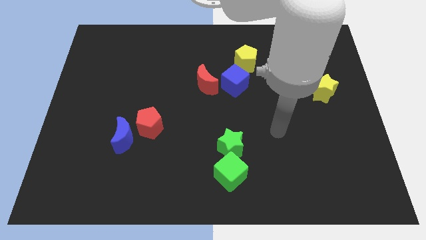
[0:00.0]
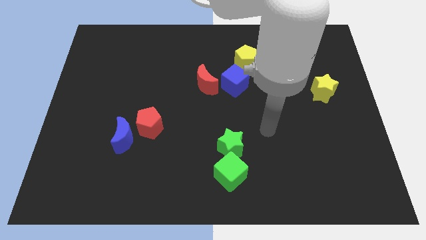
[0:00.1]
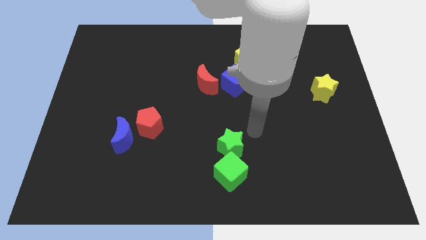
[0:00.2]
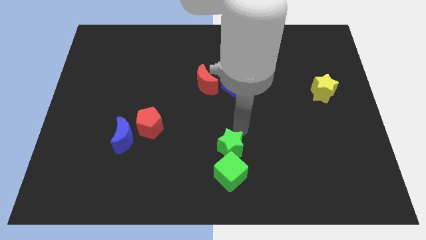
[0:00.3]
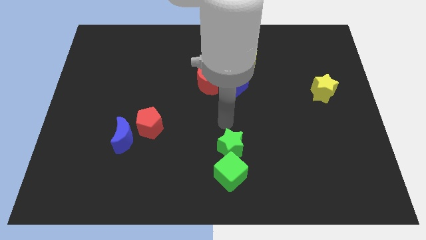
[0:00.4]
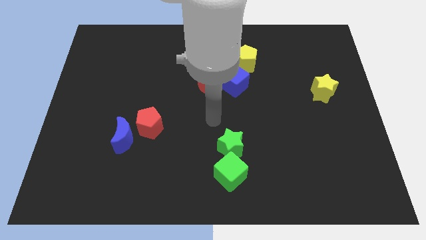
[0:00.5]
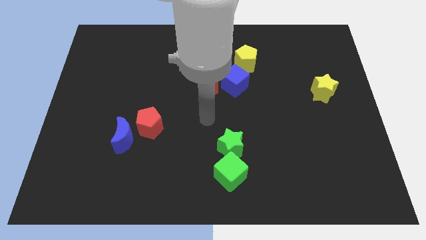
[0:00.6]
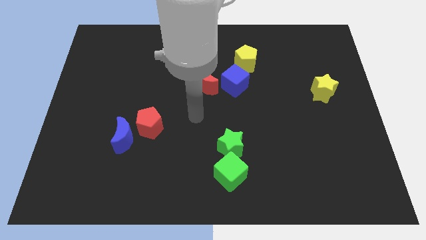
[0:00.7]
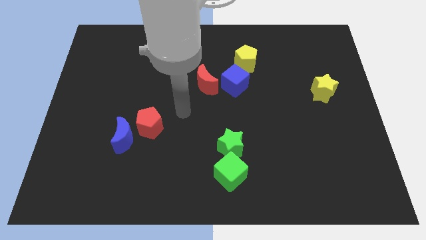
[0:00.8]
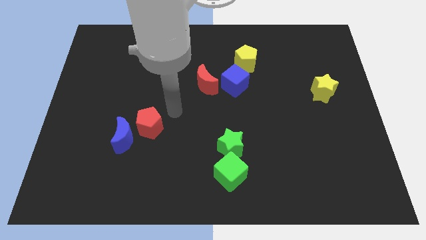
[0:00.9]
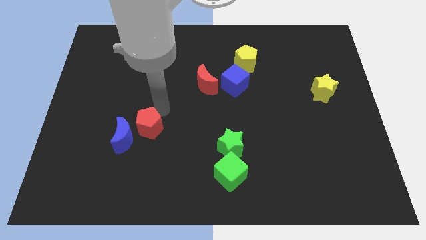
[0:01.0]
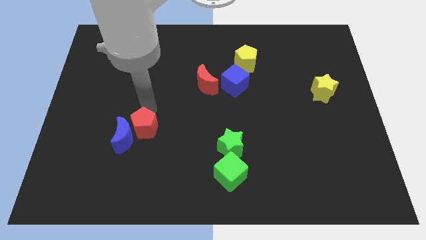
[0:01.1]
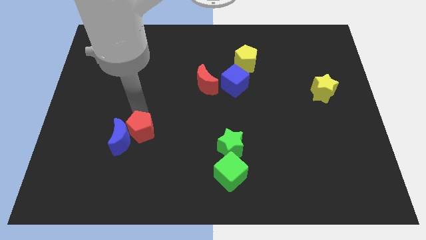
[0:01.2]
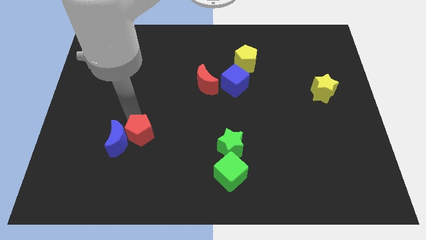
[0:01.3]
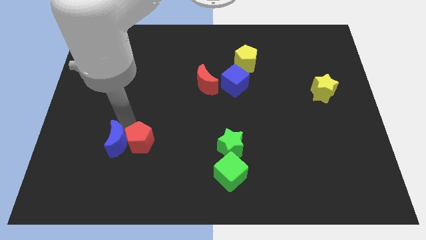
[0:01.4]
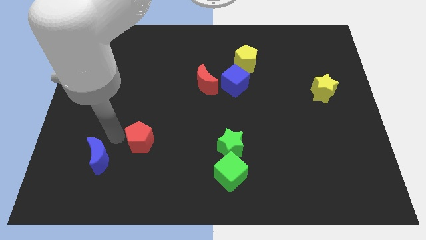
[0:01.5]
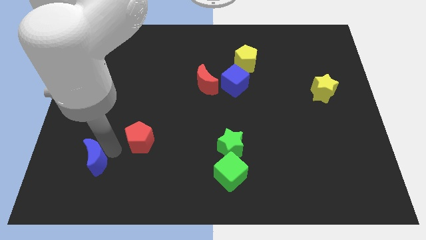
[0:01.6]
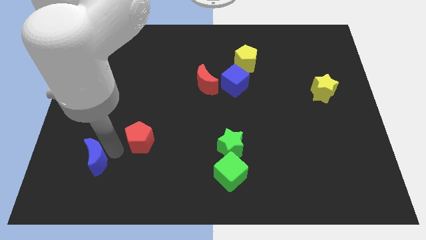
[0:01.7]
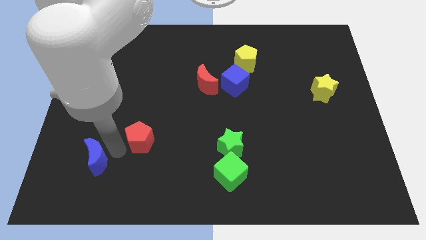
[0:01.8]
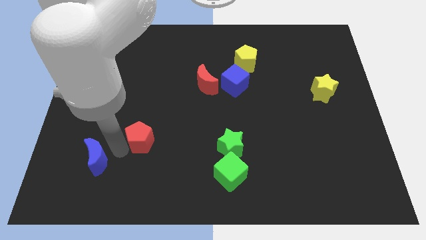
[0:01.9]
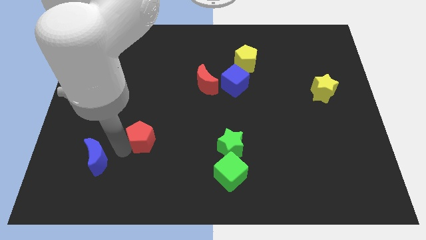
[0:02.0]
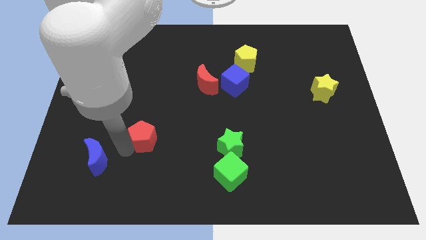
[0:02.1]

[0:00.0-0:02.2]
pull the red pentagon apart from the blue moon

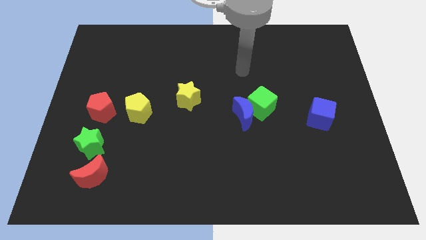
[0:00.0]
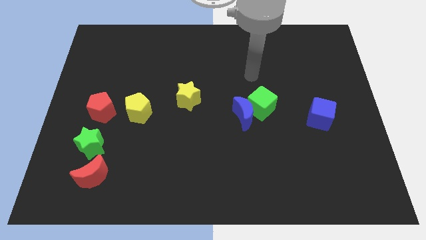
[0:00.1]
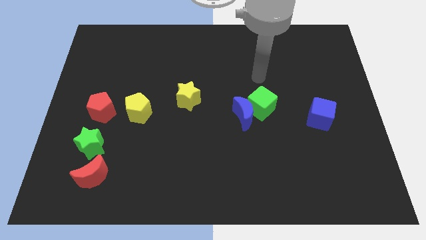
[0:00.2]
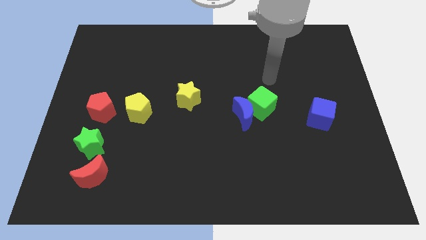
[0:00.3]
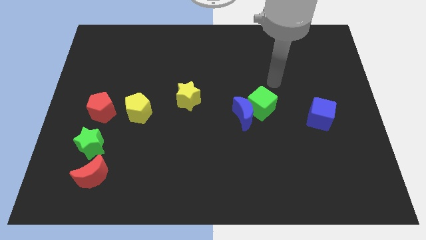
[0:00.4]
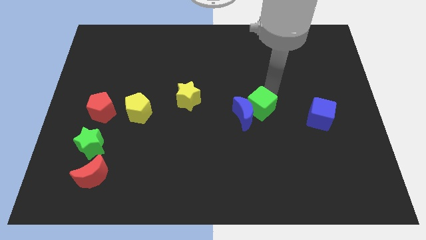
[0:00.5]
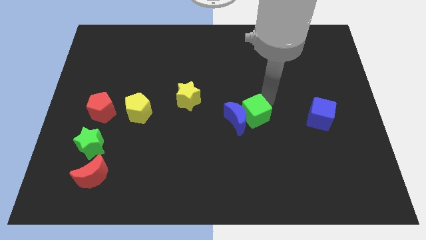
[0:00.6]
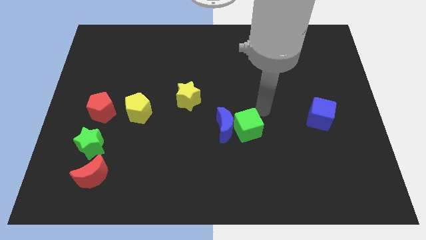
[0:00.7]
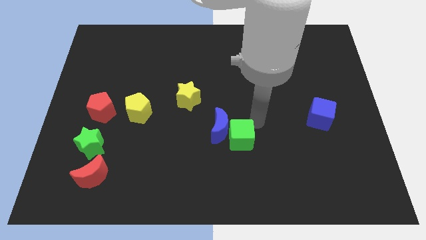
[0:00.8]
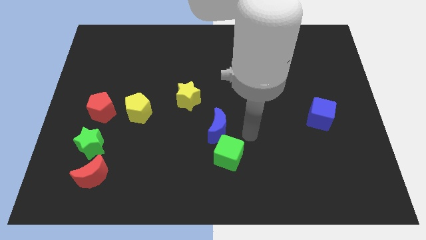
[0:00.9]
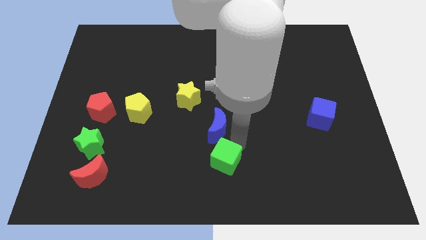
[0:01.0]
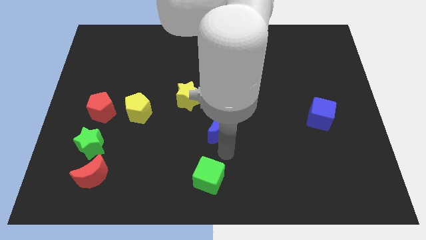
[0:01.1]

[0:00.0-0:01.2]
move the blue moon away from the green cube

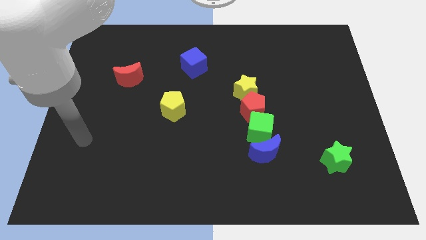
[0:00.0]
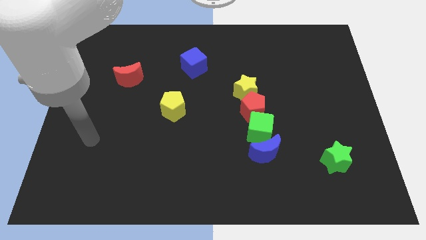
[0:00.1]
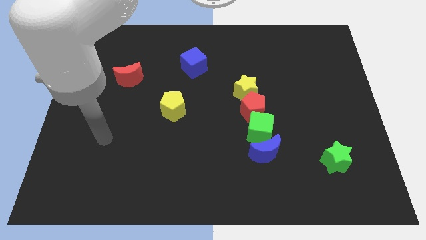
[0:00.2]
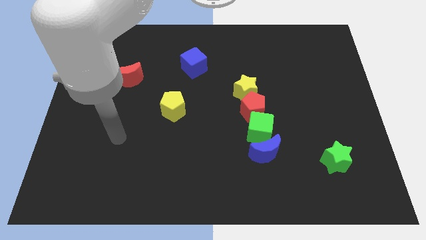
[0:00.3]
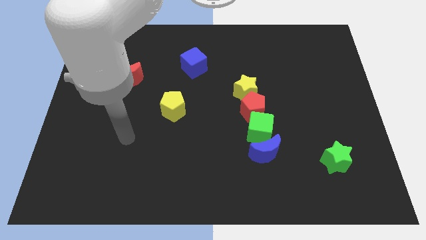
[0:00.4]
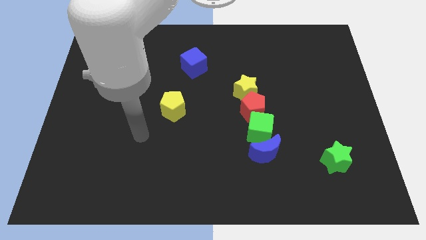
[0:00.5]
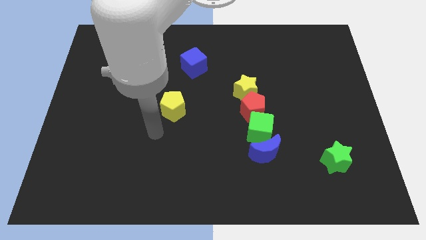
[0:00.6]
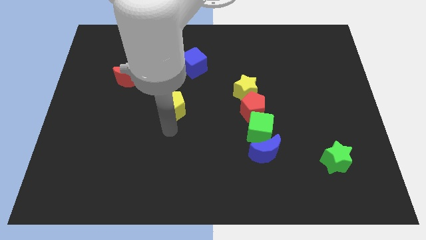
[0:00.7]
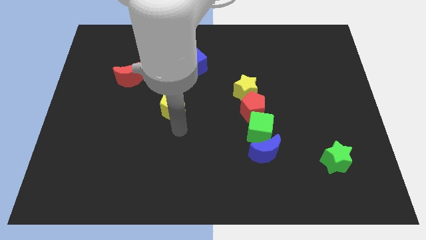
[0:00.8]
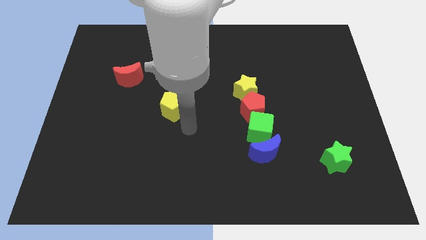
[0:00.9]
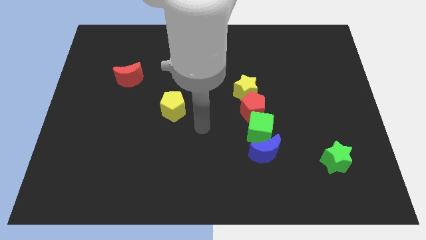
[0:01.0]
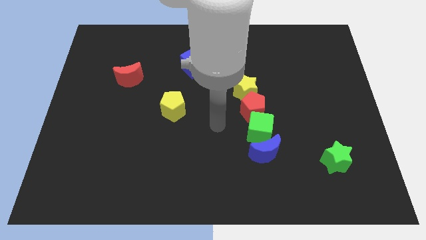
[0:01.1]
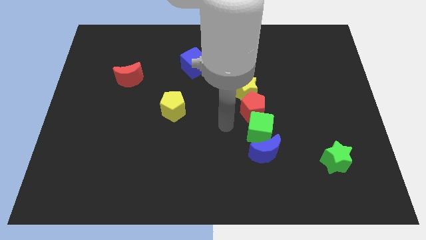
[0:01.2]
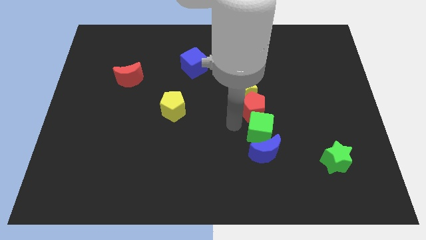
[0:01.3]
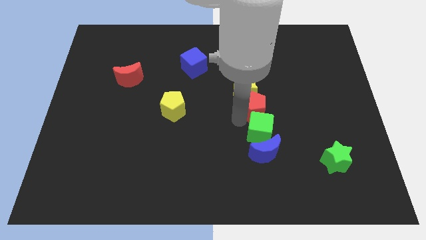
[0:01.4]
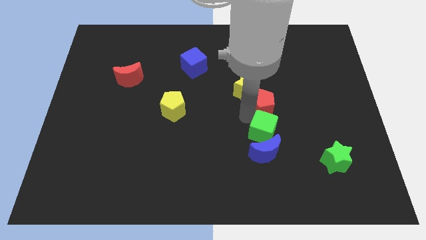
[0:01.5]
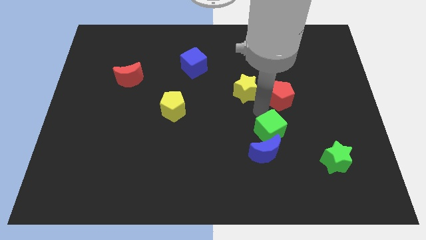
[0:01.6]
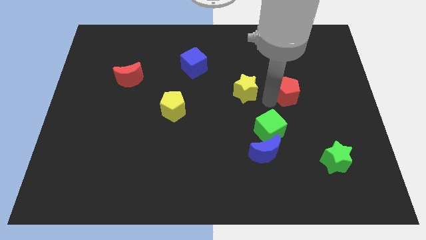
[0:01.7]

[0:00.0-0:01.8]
separate the yellow star from the red pentagon

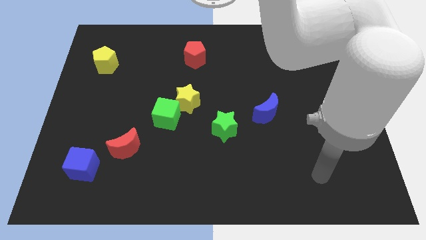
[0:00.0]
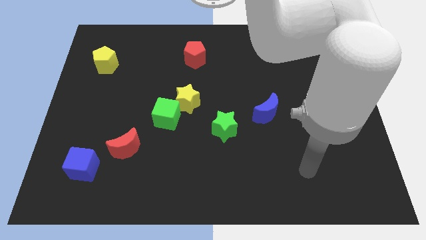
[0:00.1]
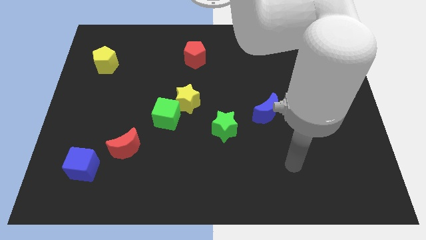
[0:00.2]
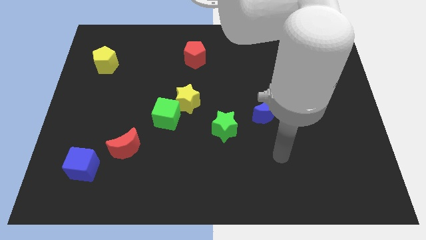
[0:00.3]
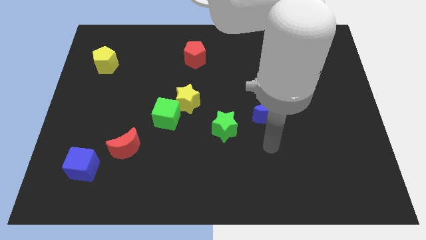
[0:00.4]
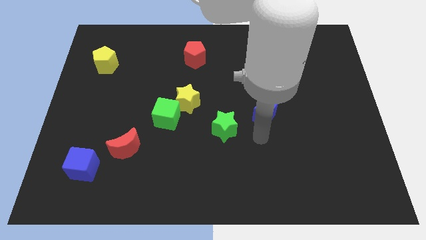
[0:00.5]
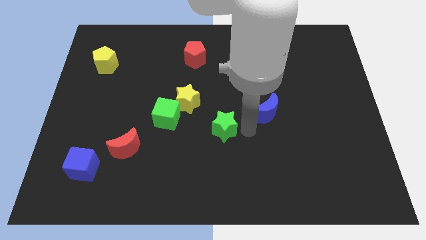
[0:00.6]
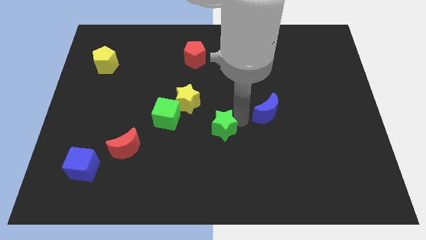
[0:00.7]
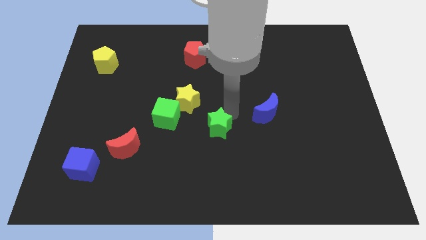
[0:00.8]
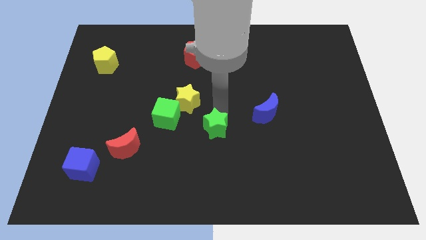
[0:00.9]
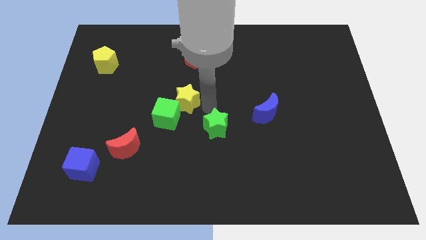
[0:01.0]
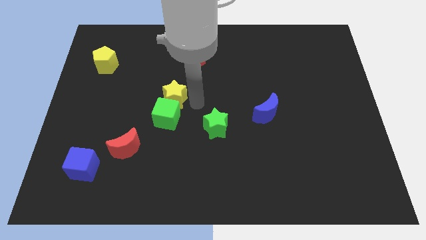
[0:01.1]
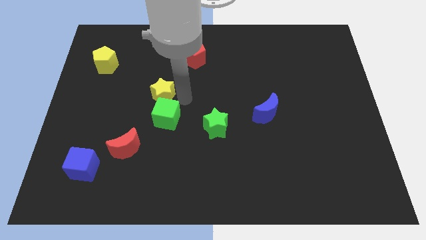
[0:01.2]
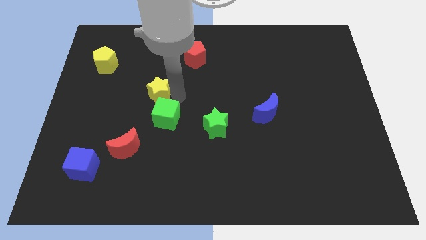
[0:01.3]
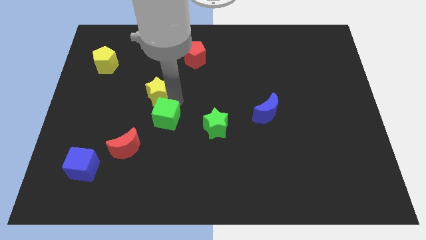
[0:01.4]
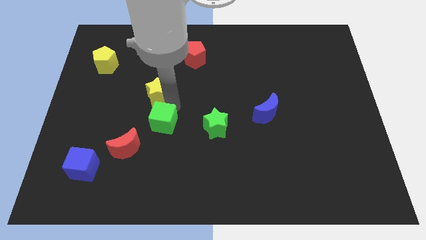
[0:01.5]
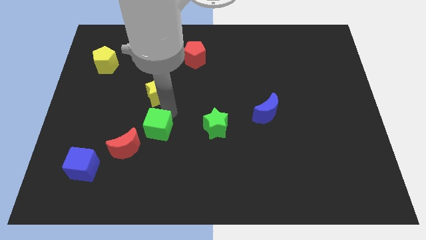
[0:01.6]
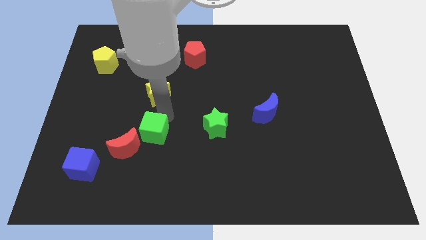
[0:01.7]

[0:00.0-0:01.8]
pull the green cube apart from the yellow star

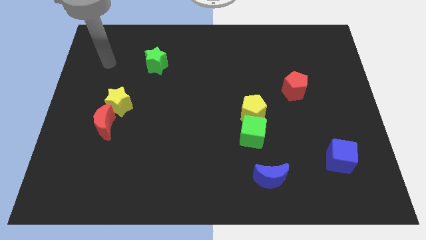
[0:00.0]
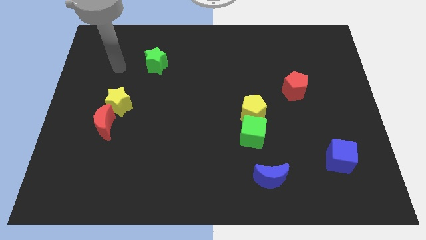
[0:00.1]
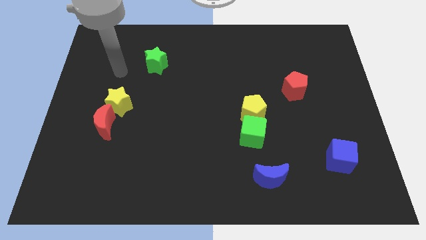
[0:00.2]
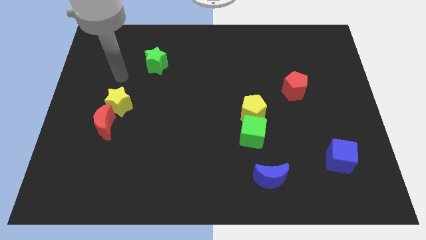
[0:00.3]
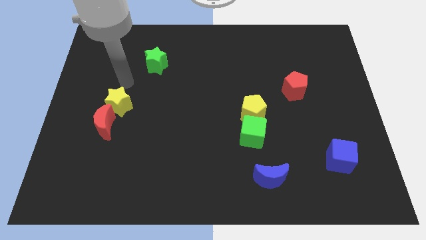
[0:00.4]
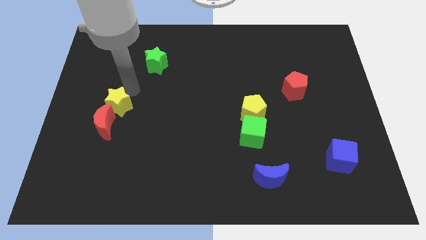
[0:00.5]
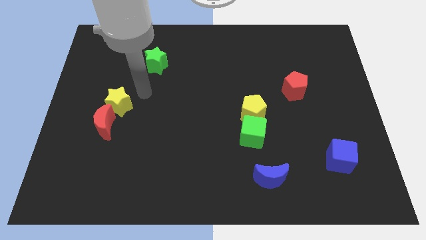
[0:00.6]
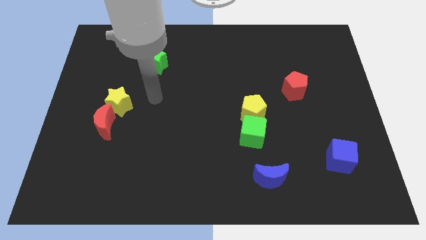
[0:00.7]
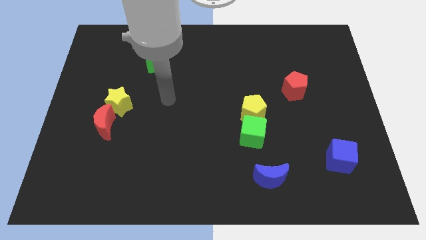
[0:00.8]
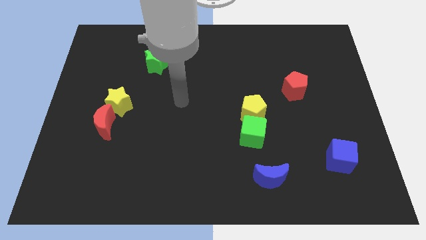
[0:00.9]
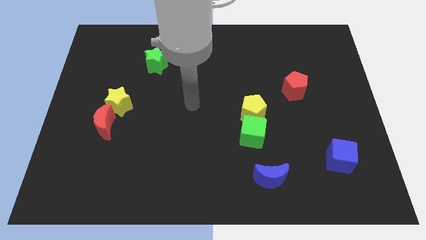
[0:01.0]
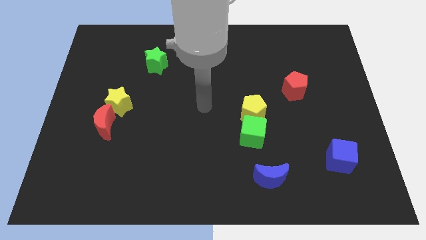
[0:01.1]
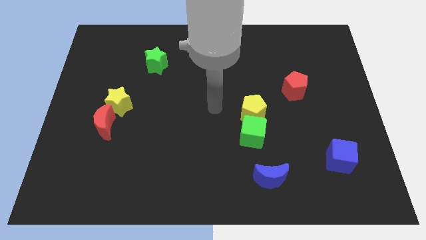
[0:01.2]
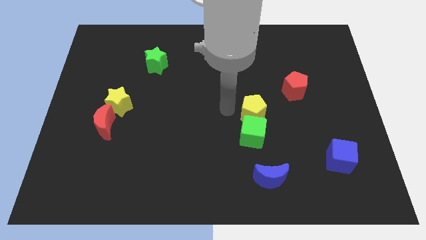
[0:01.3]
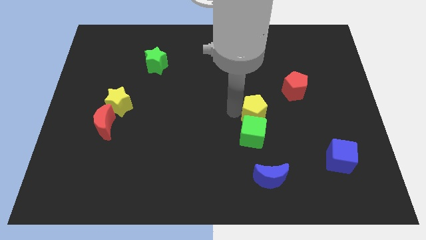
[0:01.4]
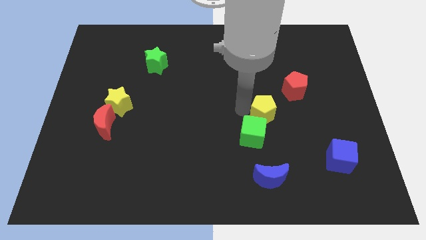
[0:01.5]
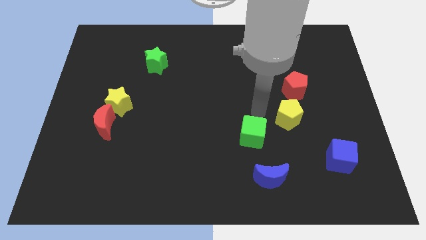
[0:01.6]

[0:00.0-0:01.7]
move the green cube away from the yellow pentagon

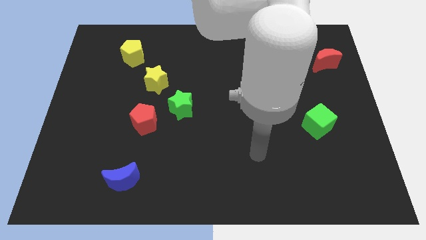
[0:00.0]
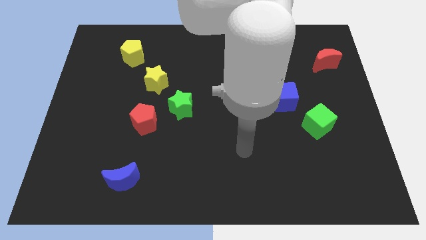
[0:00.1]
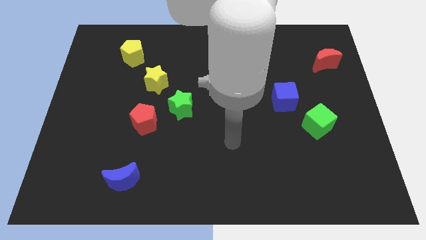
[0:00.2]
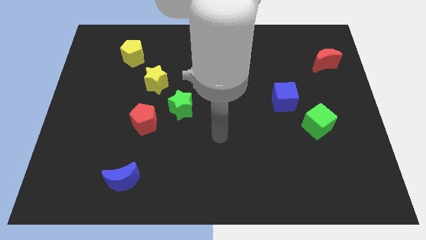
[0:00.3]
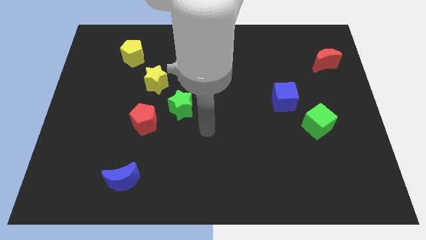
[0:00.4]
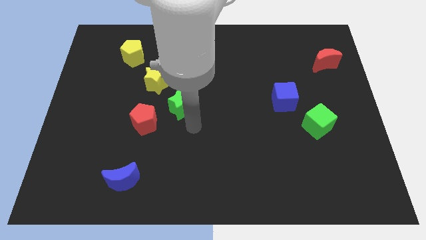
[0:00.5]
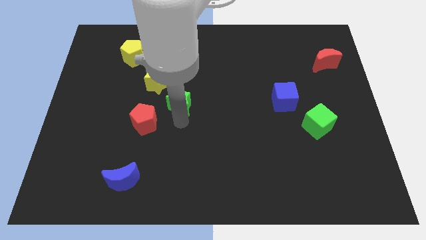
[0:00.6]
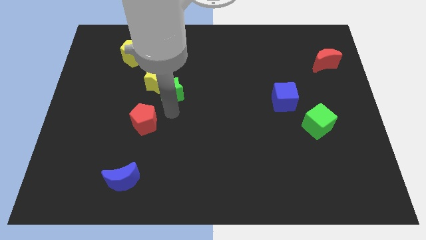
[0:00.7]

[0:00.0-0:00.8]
move the red pentagon away from the green star
